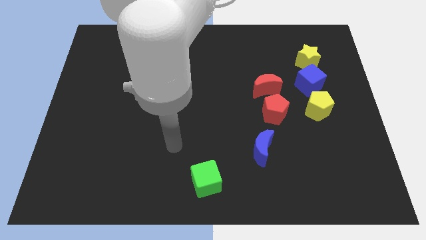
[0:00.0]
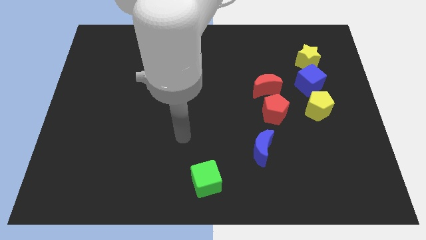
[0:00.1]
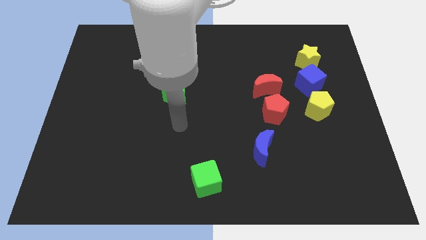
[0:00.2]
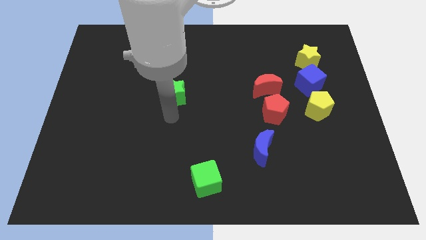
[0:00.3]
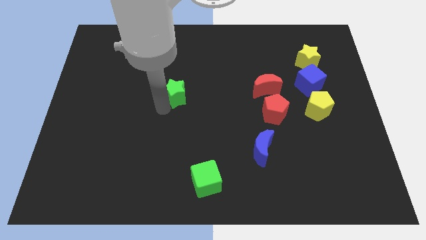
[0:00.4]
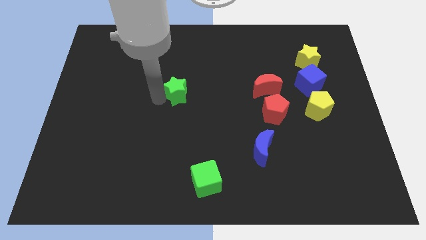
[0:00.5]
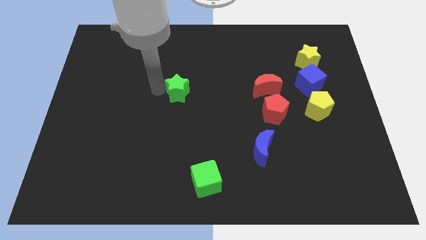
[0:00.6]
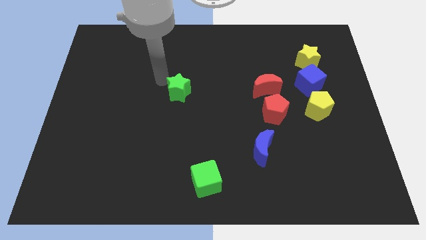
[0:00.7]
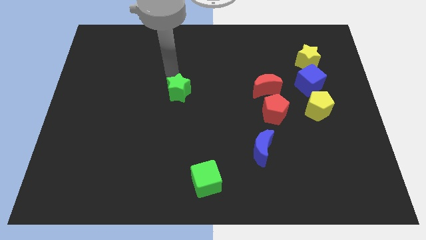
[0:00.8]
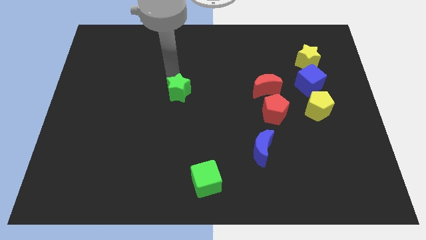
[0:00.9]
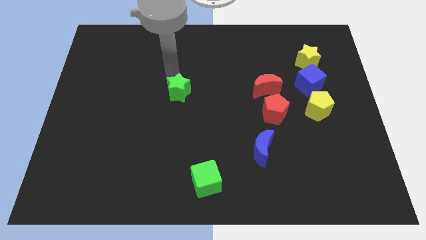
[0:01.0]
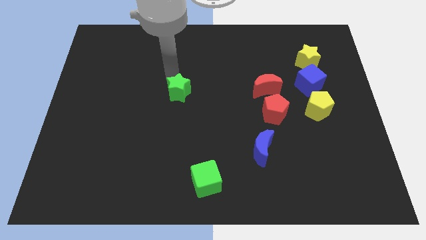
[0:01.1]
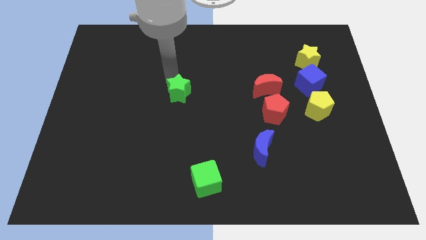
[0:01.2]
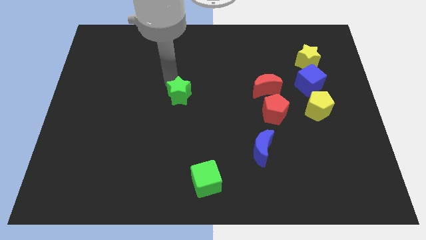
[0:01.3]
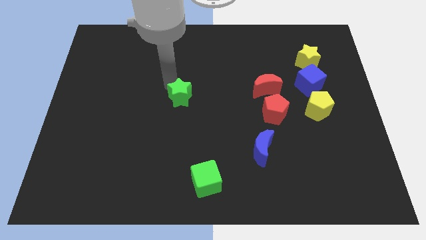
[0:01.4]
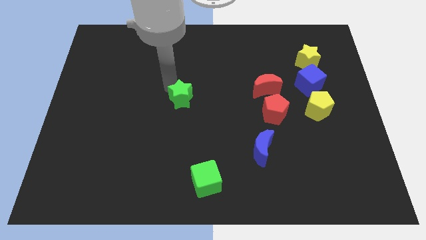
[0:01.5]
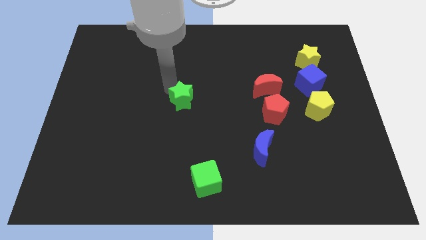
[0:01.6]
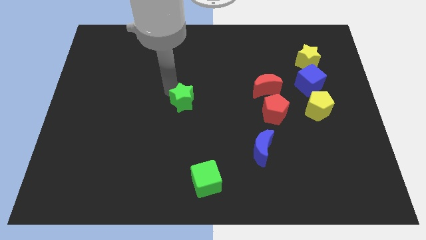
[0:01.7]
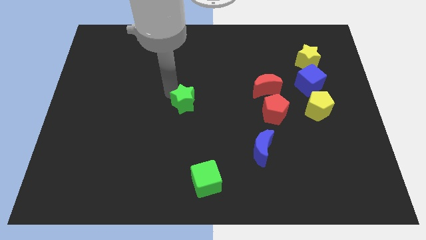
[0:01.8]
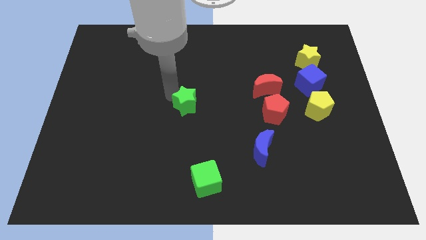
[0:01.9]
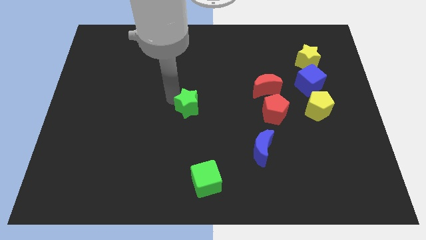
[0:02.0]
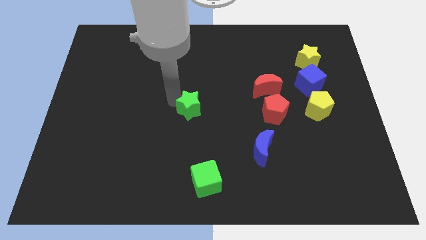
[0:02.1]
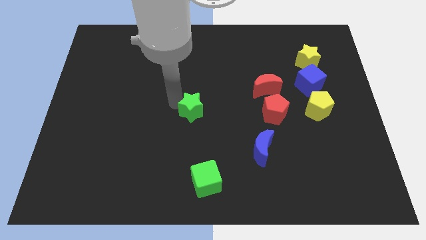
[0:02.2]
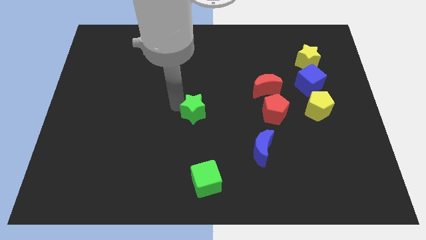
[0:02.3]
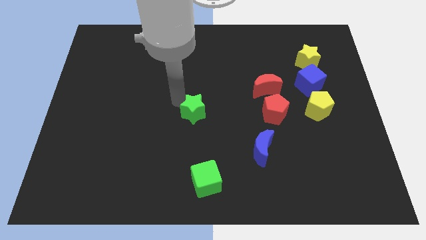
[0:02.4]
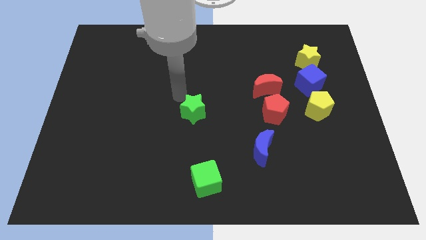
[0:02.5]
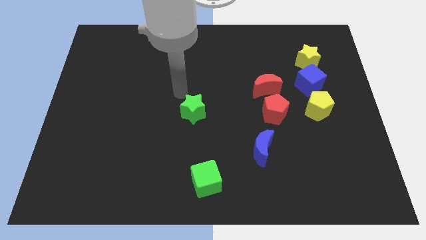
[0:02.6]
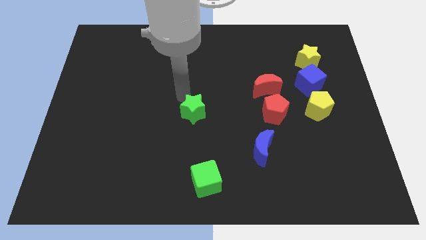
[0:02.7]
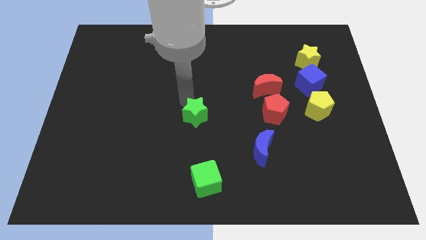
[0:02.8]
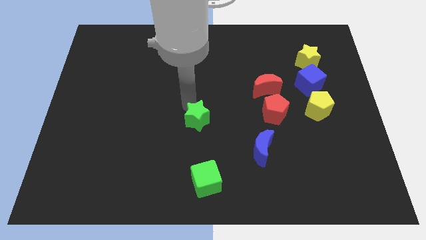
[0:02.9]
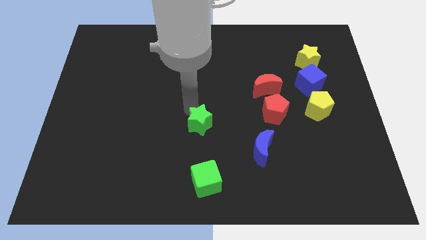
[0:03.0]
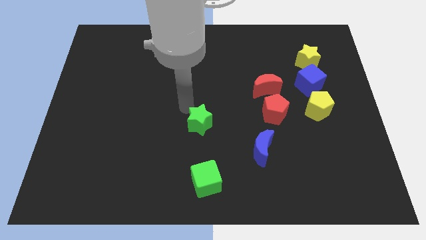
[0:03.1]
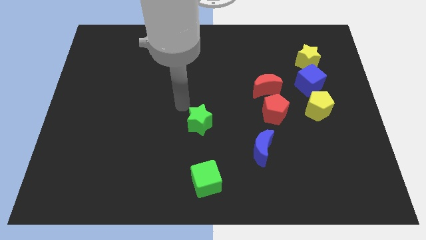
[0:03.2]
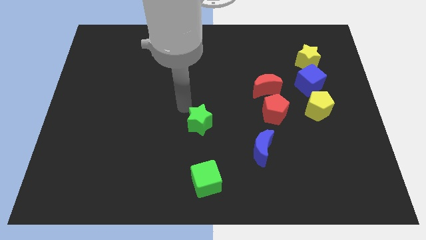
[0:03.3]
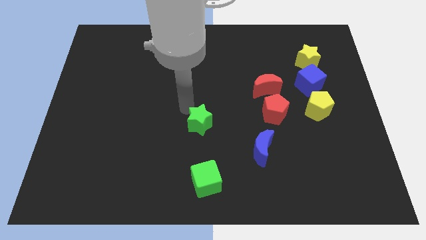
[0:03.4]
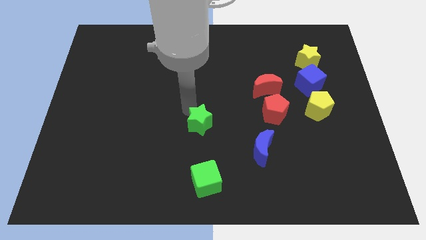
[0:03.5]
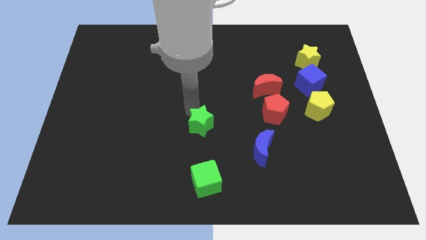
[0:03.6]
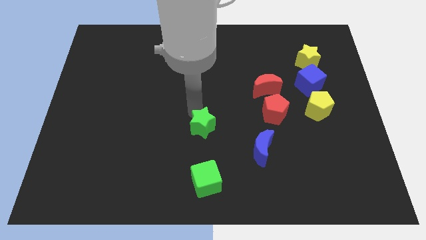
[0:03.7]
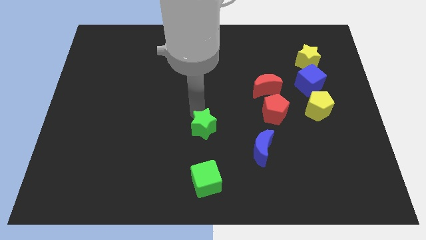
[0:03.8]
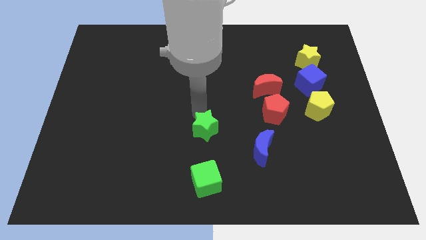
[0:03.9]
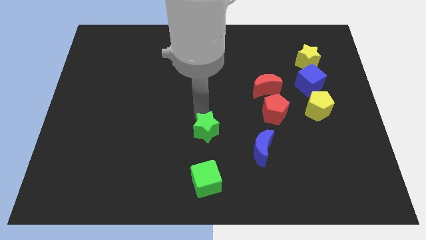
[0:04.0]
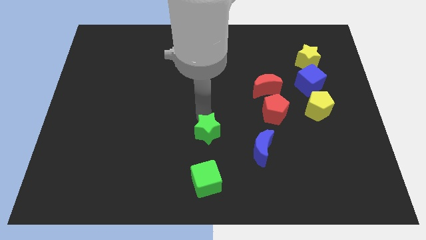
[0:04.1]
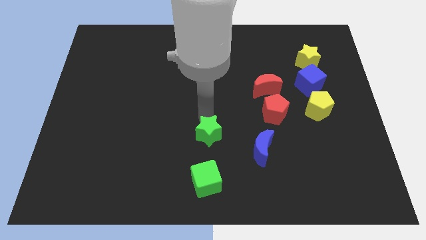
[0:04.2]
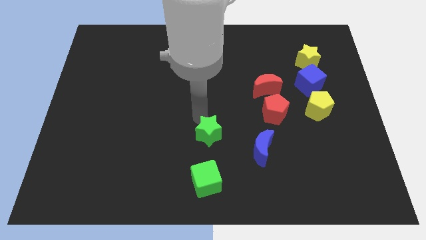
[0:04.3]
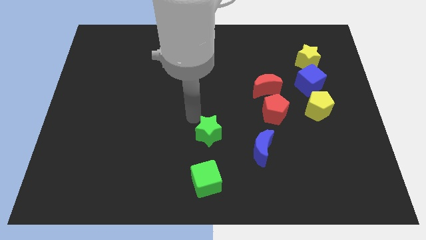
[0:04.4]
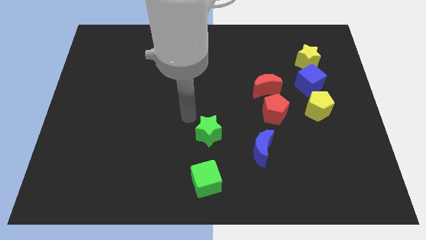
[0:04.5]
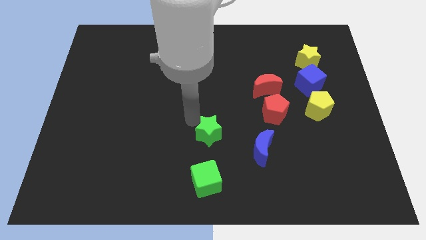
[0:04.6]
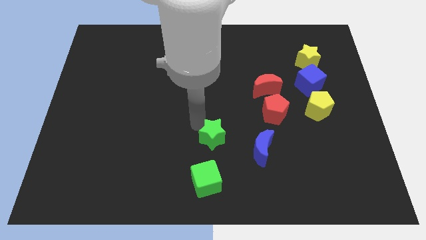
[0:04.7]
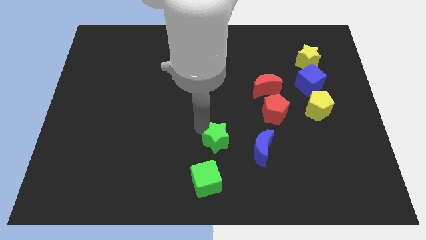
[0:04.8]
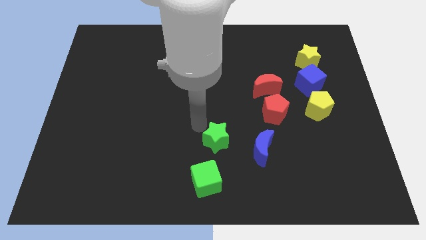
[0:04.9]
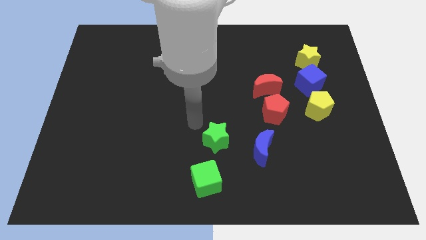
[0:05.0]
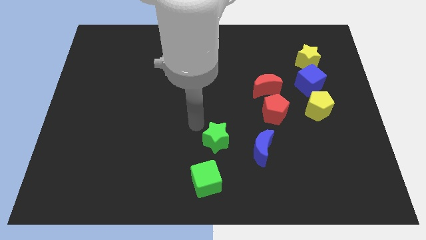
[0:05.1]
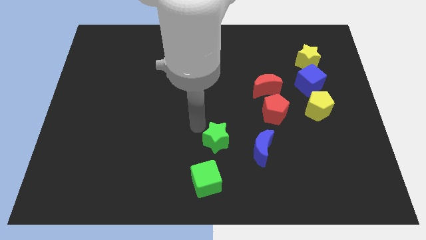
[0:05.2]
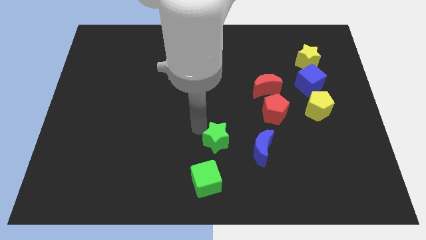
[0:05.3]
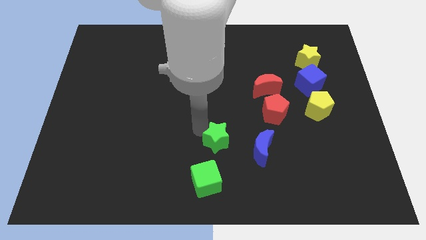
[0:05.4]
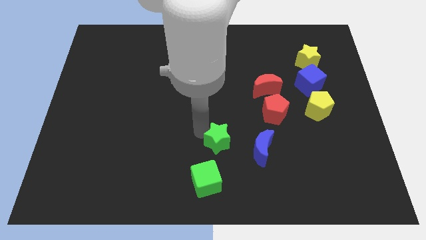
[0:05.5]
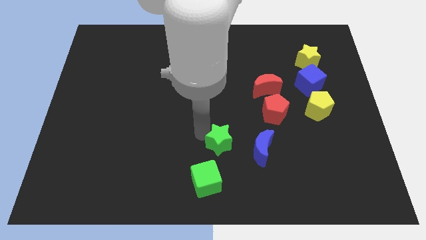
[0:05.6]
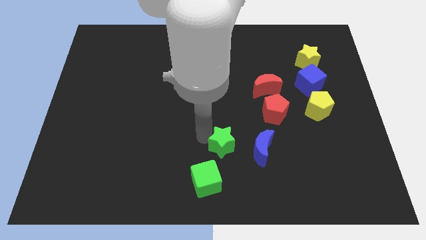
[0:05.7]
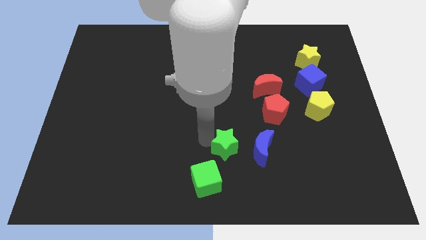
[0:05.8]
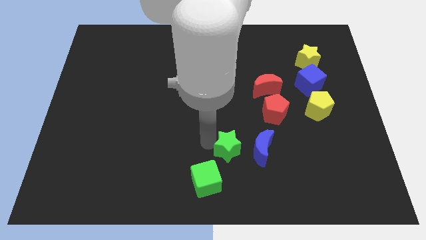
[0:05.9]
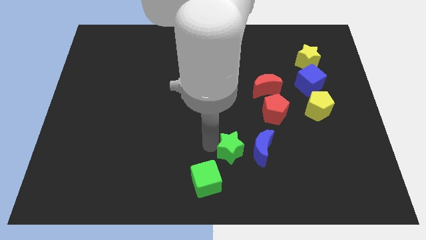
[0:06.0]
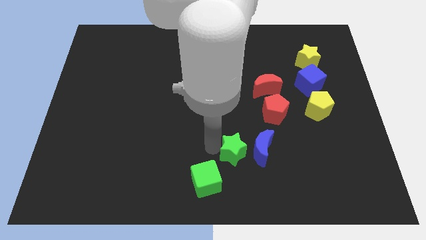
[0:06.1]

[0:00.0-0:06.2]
slide the green star downwards and to the right diagonally

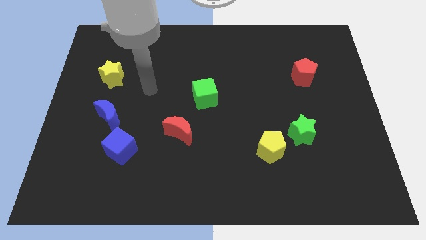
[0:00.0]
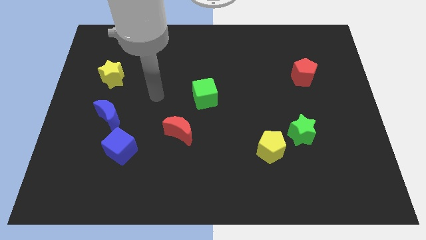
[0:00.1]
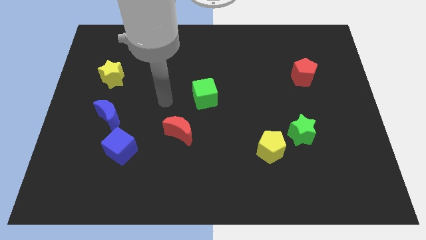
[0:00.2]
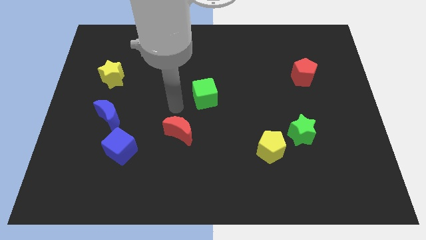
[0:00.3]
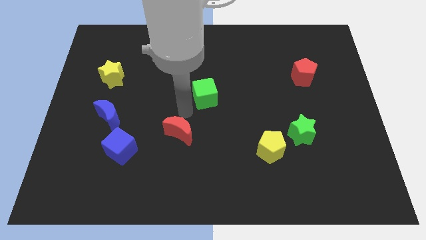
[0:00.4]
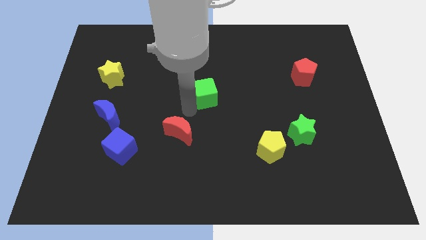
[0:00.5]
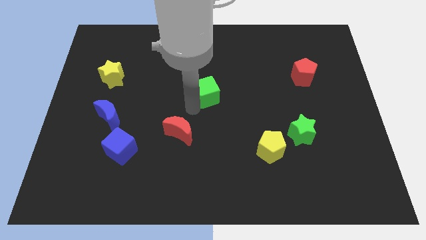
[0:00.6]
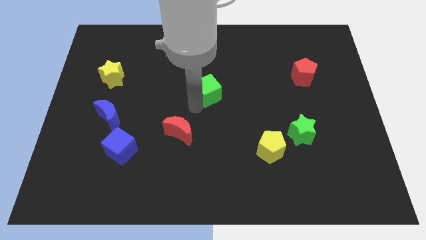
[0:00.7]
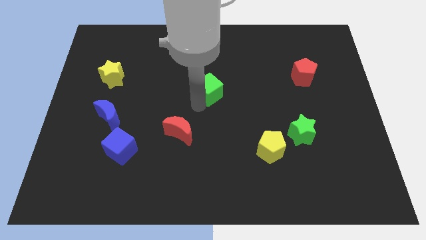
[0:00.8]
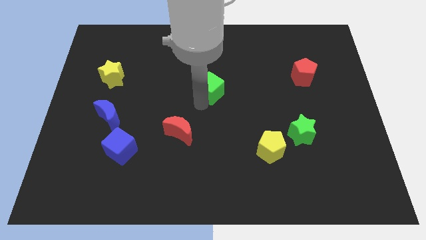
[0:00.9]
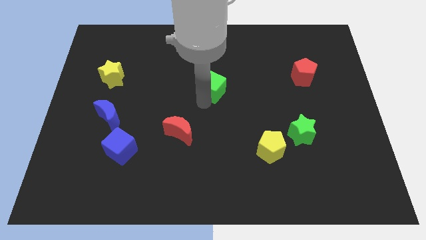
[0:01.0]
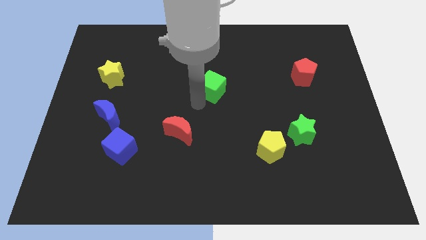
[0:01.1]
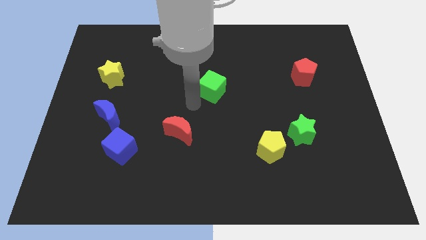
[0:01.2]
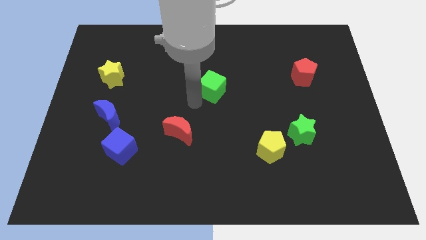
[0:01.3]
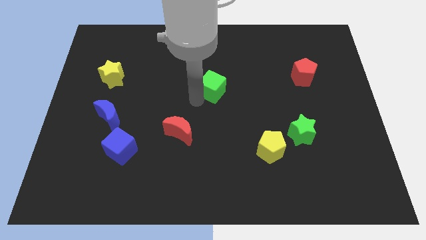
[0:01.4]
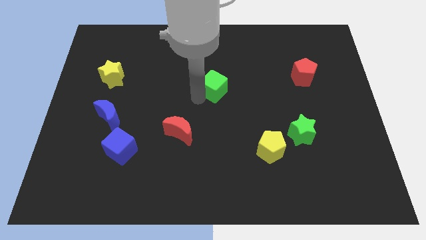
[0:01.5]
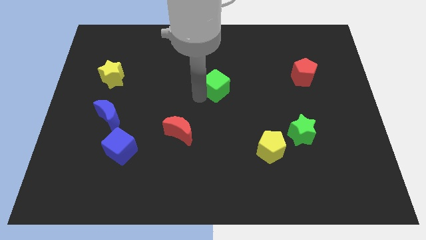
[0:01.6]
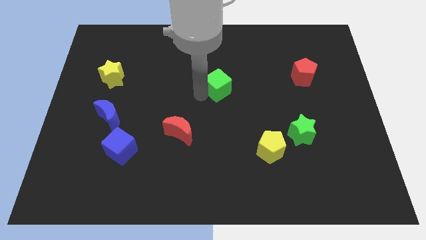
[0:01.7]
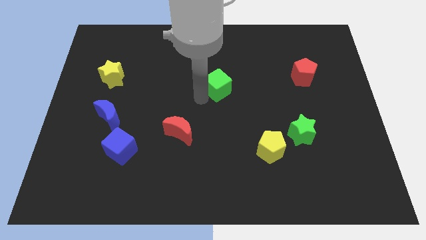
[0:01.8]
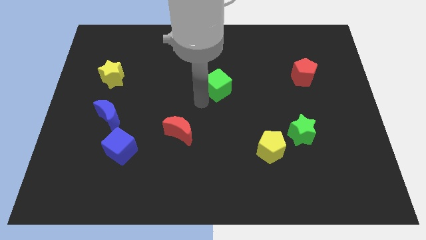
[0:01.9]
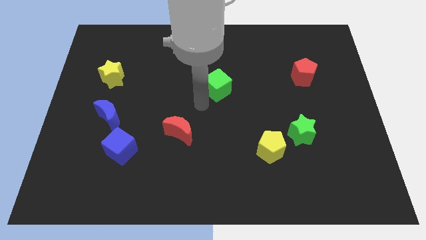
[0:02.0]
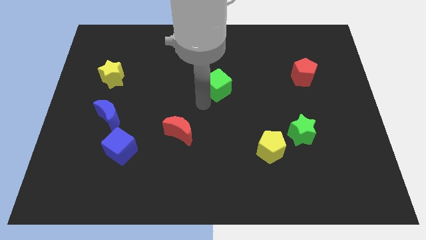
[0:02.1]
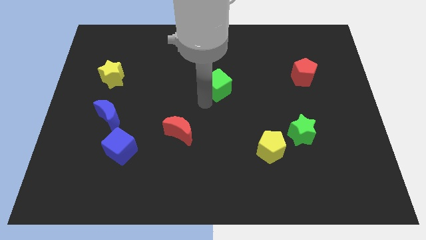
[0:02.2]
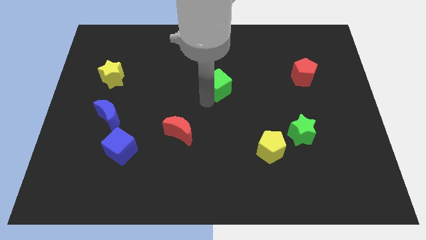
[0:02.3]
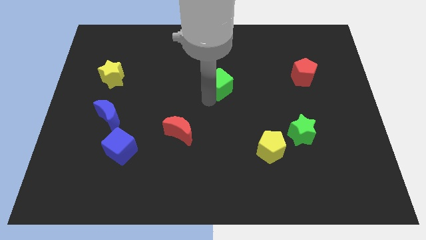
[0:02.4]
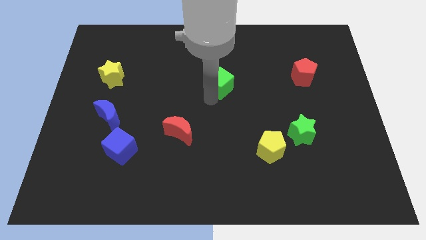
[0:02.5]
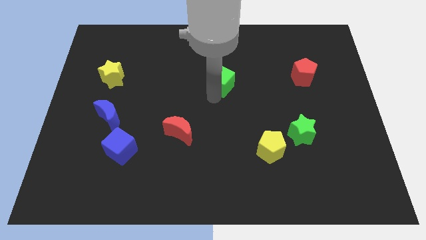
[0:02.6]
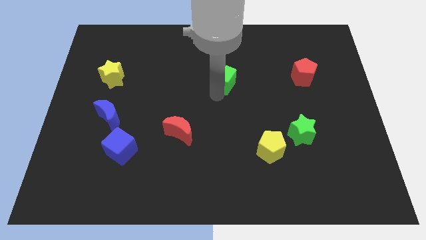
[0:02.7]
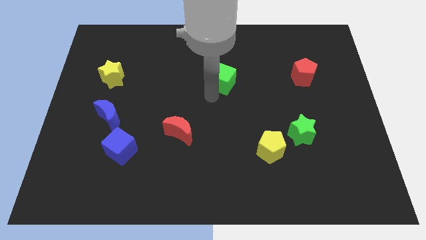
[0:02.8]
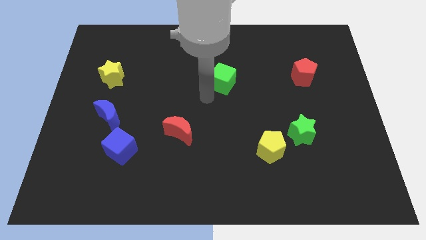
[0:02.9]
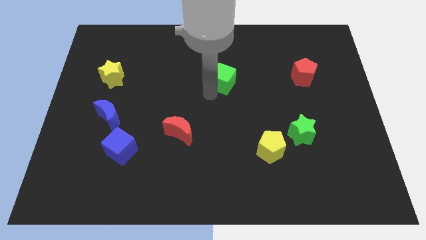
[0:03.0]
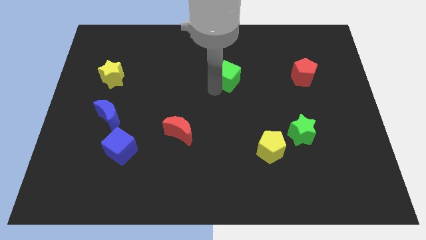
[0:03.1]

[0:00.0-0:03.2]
move the green cube up and right diagonally a bit
